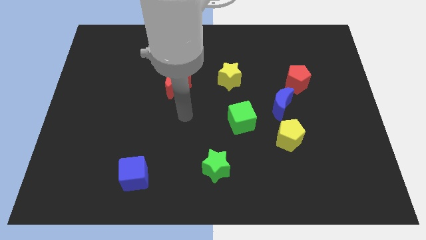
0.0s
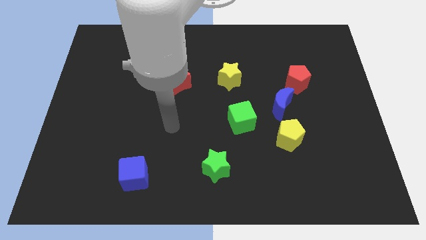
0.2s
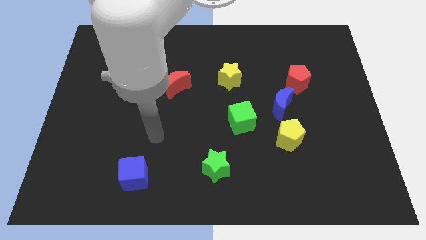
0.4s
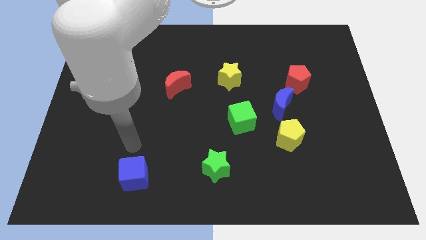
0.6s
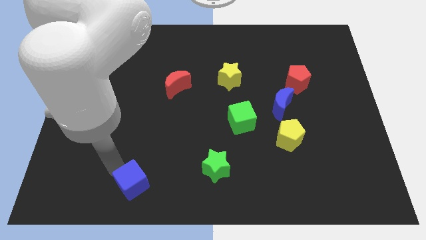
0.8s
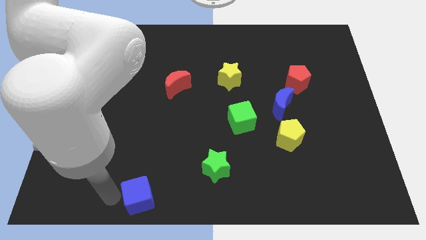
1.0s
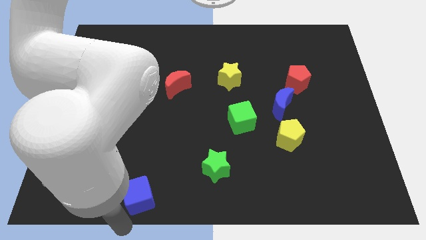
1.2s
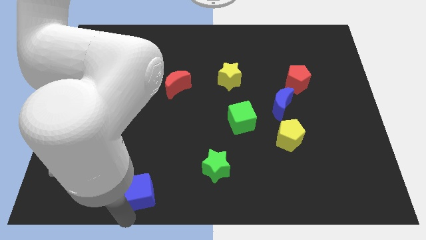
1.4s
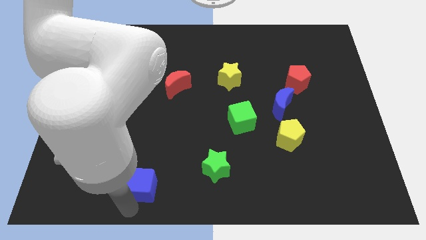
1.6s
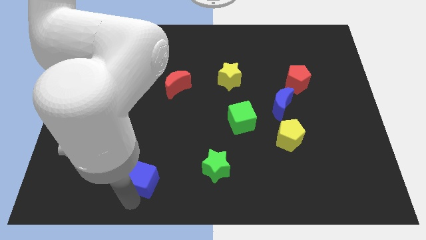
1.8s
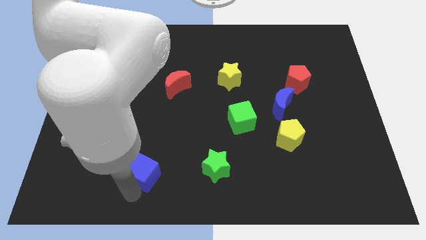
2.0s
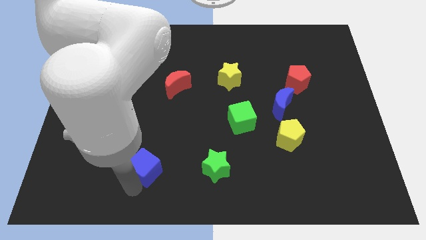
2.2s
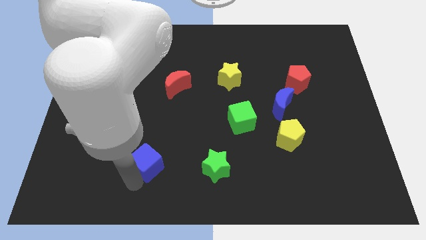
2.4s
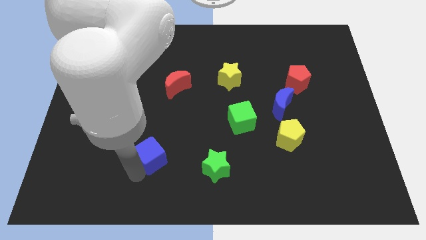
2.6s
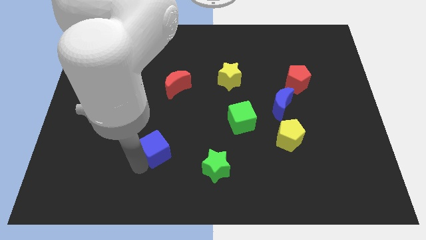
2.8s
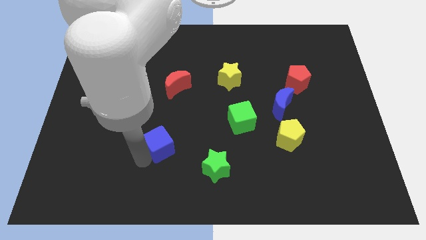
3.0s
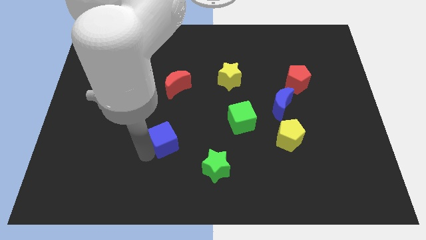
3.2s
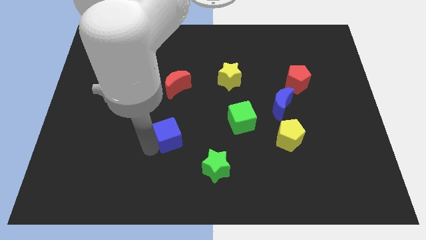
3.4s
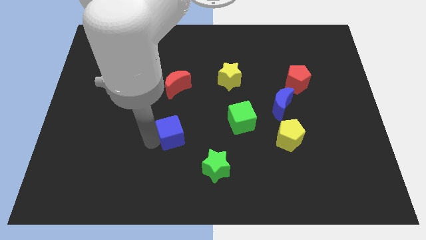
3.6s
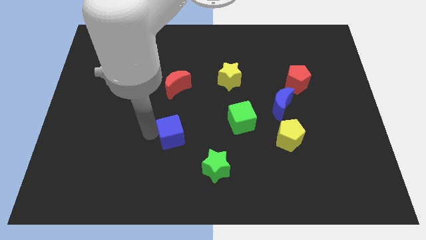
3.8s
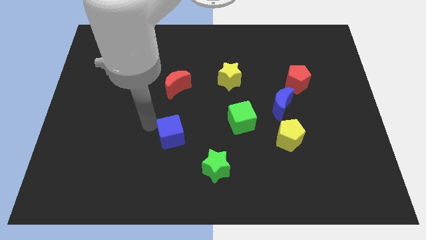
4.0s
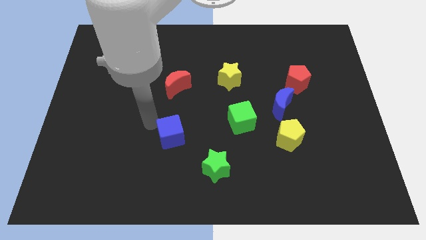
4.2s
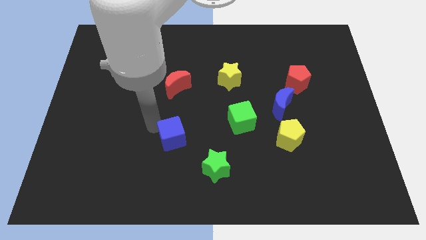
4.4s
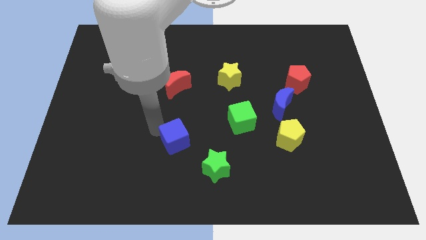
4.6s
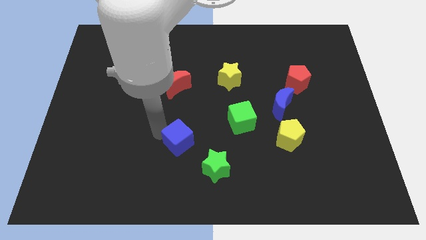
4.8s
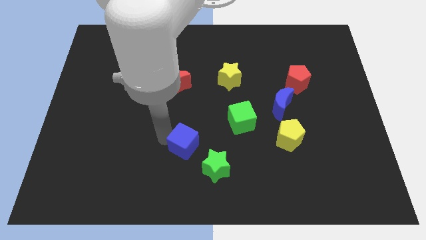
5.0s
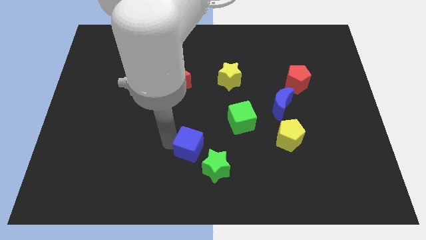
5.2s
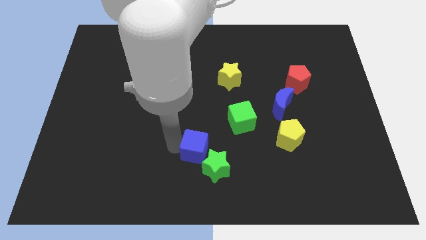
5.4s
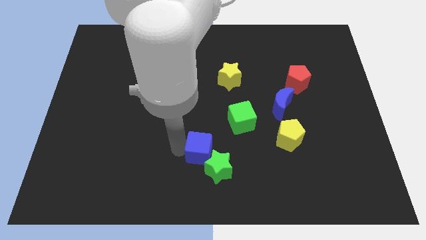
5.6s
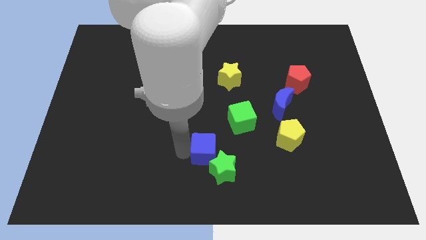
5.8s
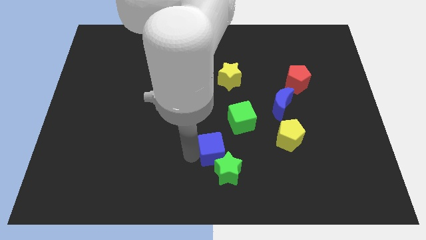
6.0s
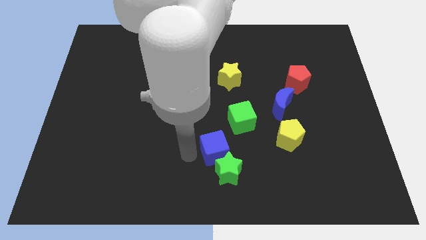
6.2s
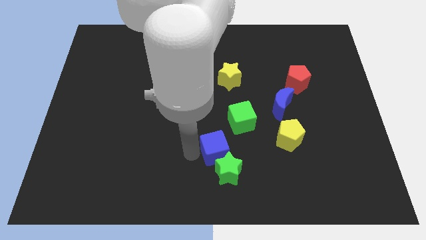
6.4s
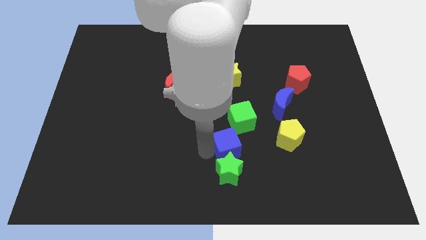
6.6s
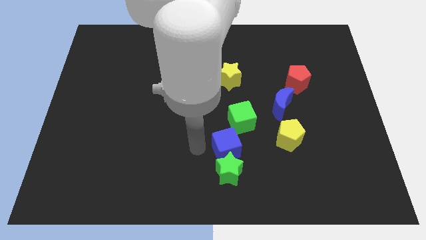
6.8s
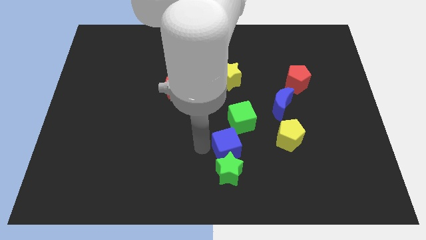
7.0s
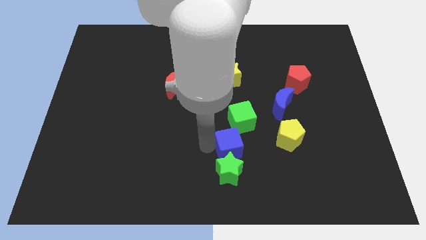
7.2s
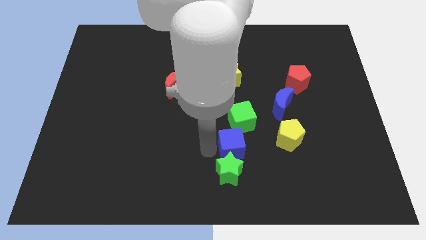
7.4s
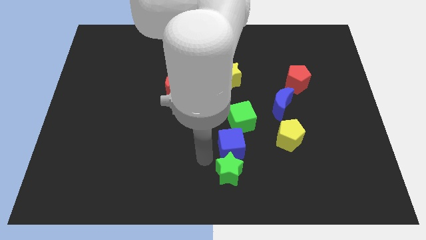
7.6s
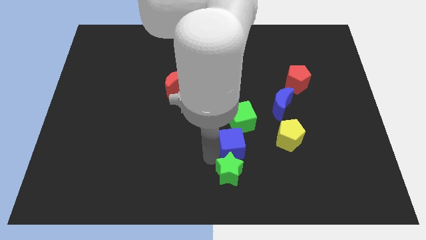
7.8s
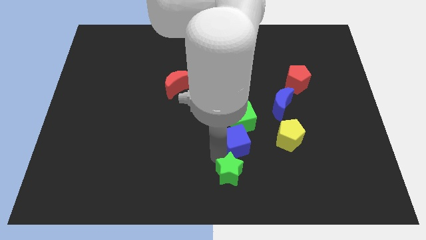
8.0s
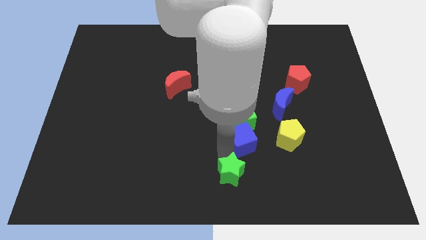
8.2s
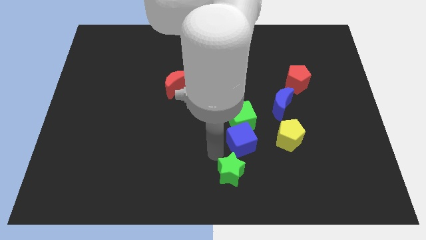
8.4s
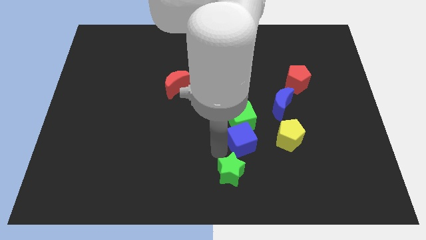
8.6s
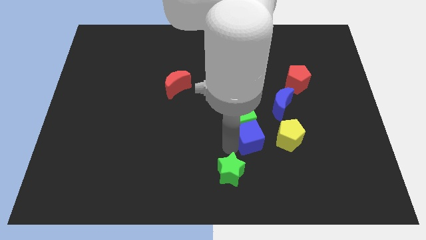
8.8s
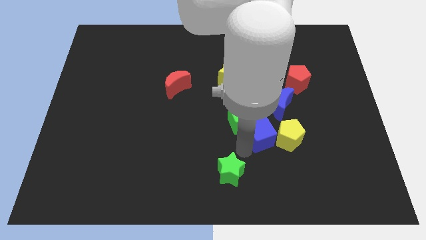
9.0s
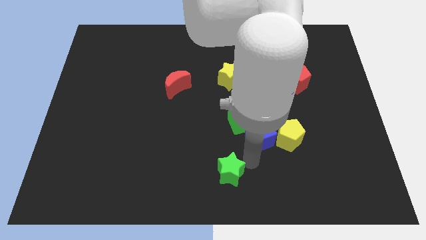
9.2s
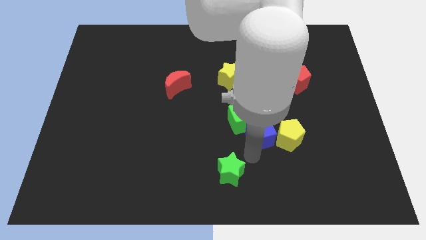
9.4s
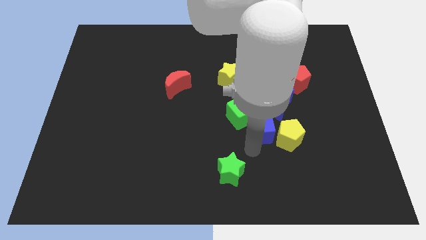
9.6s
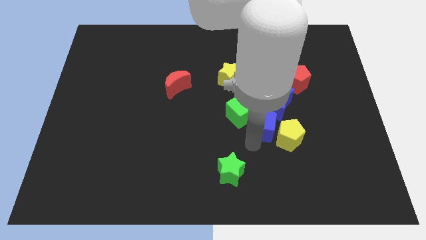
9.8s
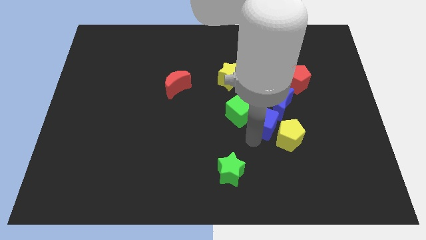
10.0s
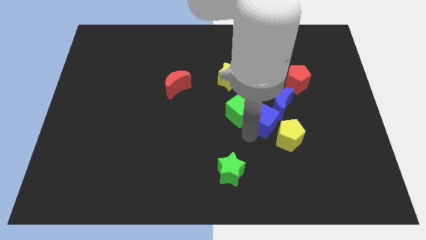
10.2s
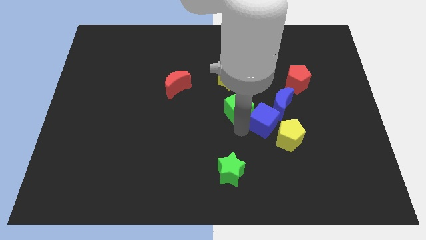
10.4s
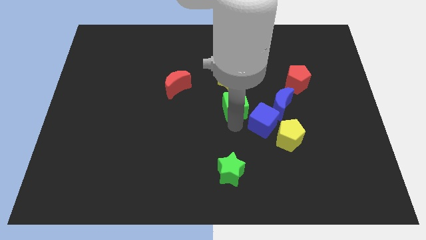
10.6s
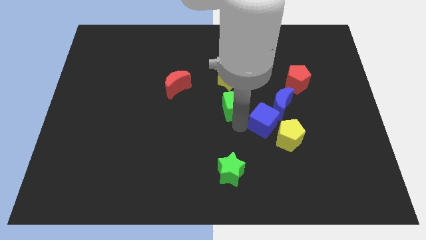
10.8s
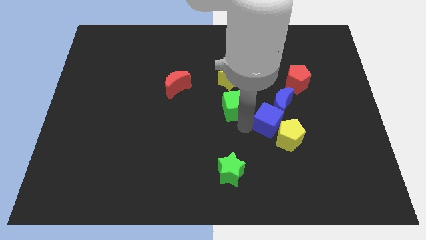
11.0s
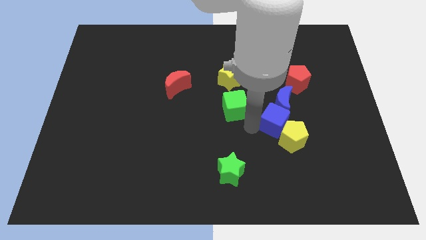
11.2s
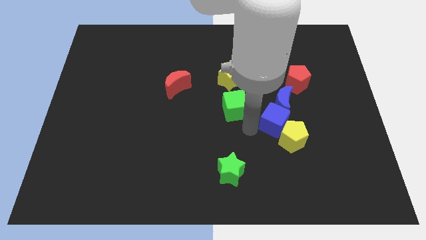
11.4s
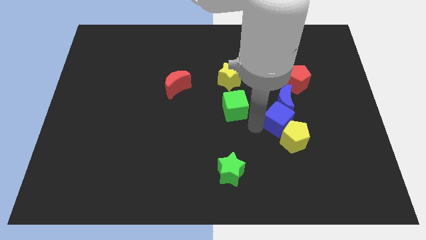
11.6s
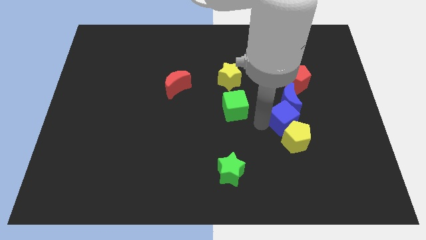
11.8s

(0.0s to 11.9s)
put the blue cube to the bottom of the red pentagon

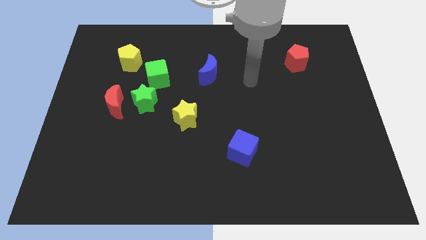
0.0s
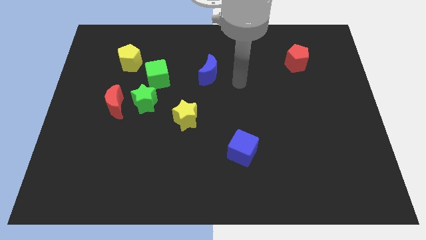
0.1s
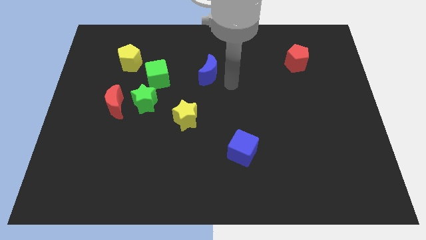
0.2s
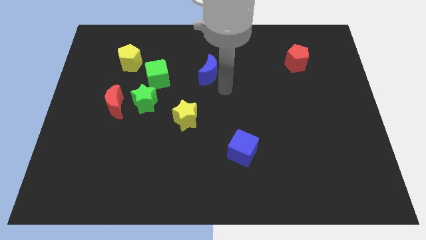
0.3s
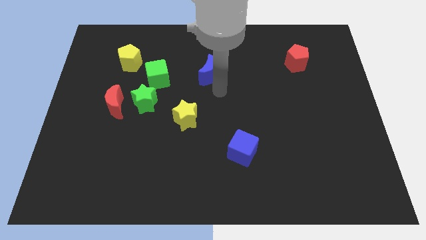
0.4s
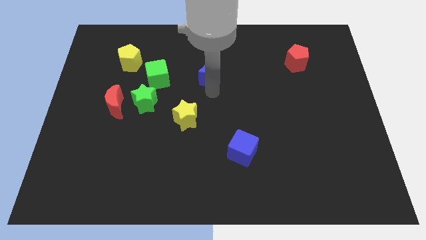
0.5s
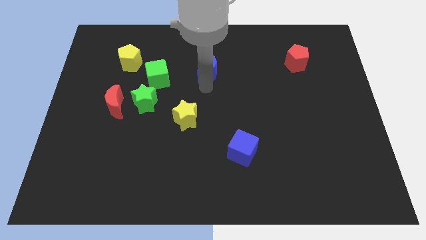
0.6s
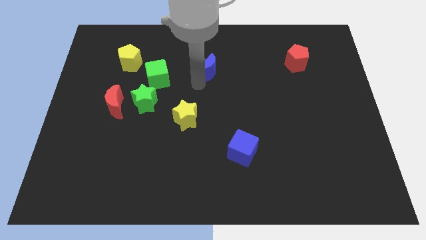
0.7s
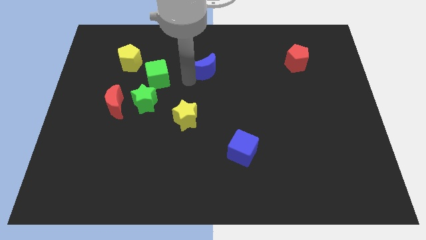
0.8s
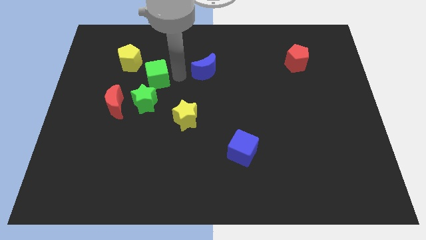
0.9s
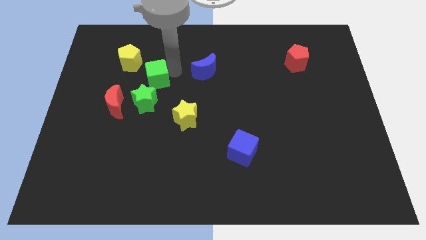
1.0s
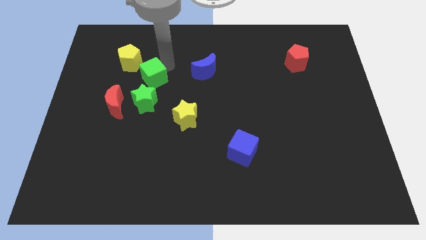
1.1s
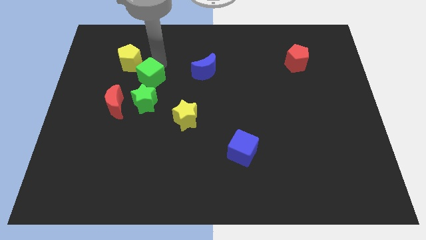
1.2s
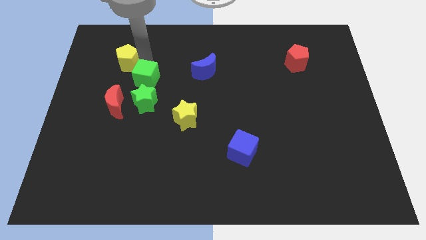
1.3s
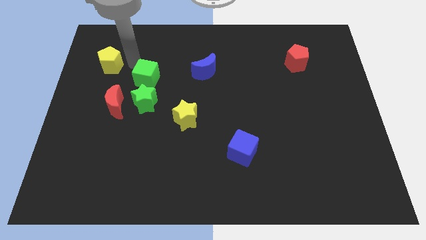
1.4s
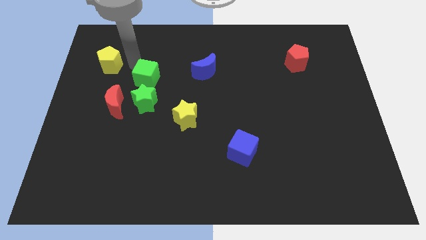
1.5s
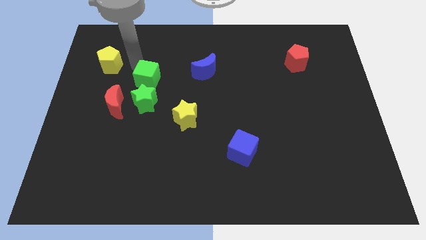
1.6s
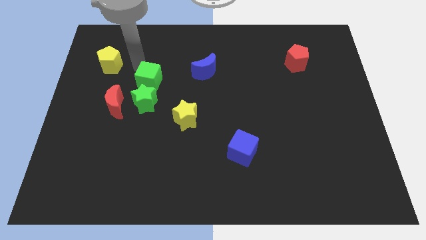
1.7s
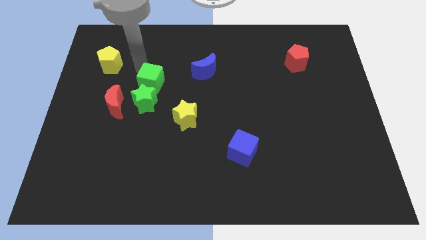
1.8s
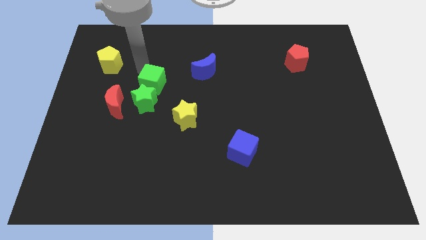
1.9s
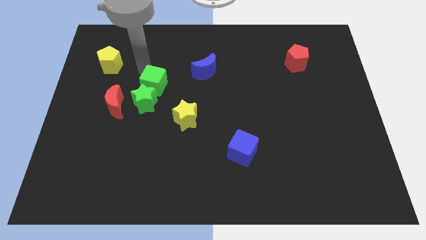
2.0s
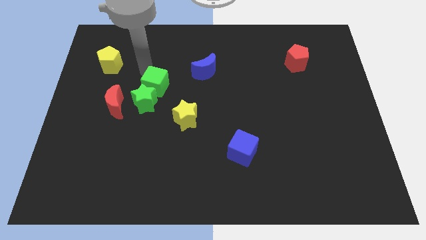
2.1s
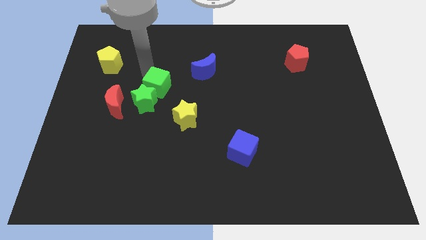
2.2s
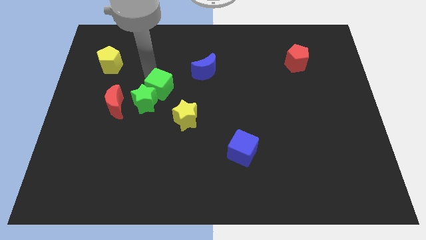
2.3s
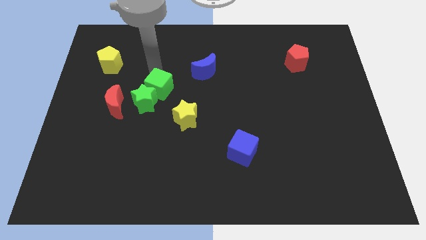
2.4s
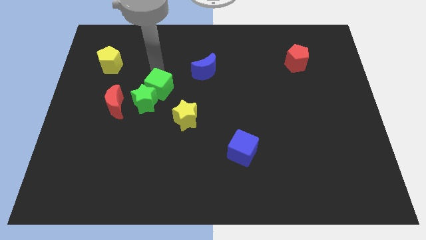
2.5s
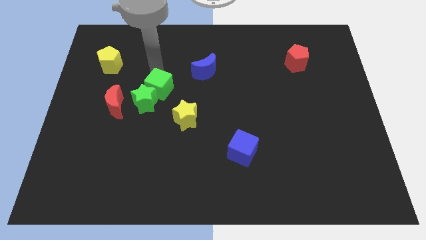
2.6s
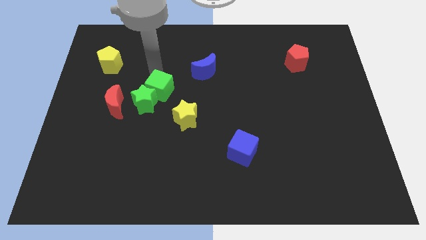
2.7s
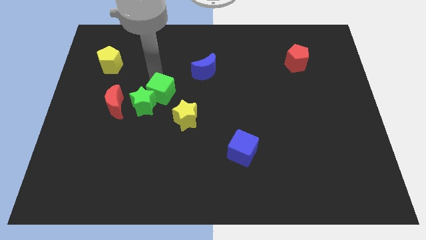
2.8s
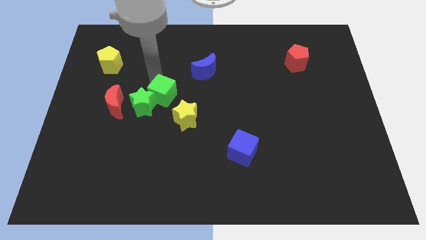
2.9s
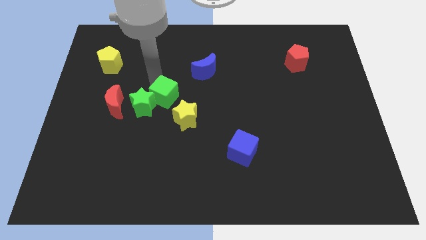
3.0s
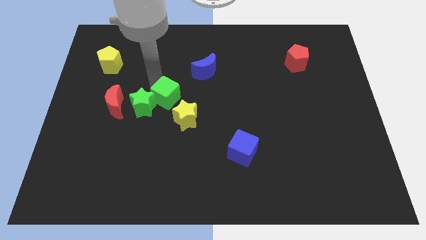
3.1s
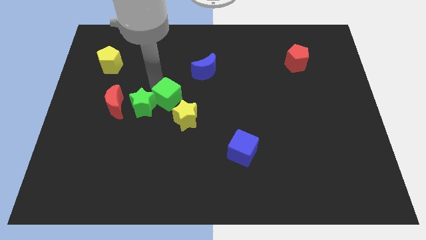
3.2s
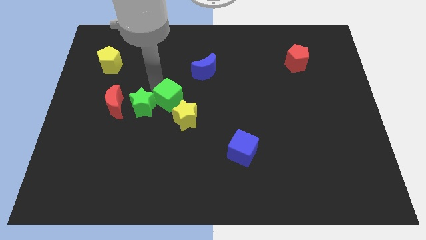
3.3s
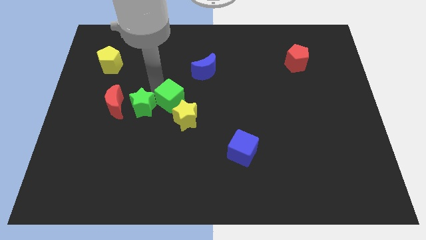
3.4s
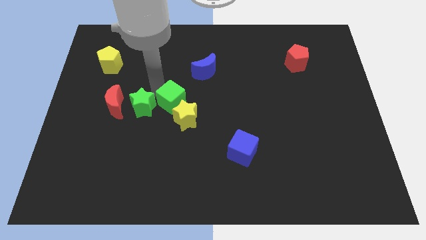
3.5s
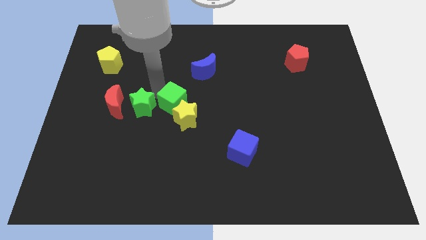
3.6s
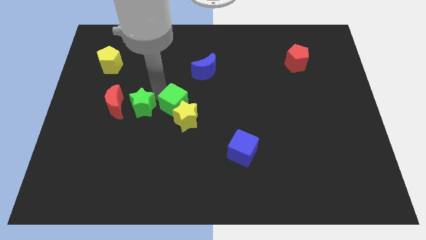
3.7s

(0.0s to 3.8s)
move the green cube left of the yellow star
